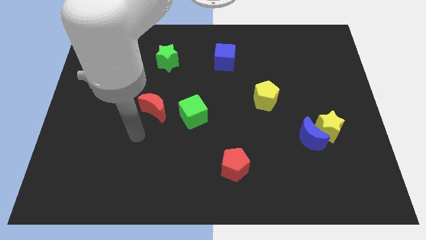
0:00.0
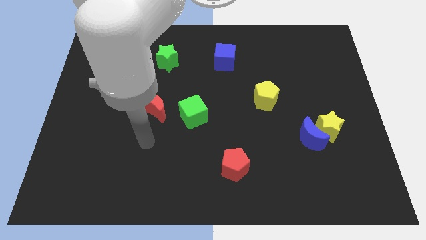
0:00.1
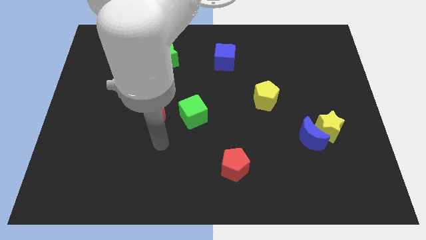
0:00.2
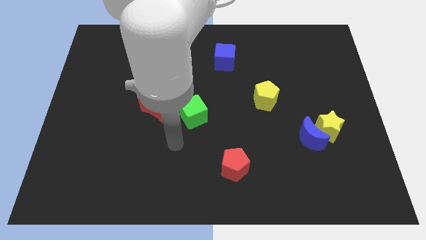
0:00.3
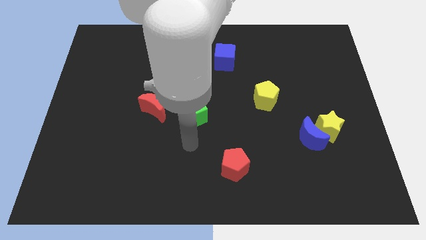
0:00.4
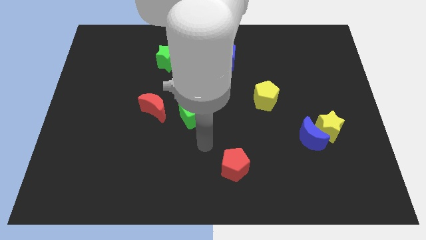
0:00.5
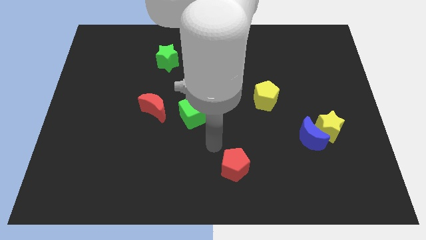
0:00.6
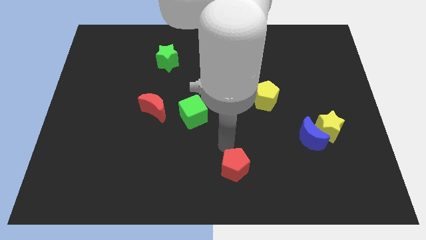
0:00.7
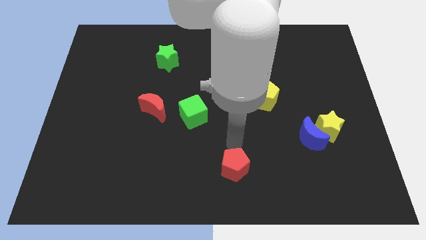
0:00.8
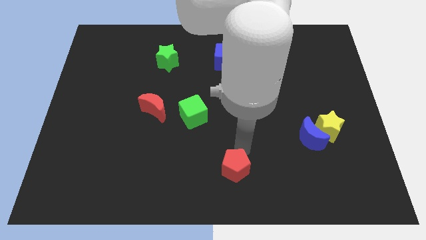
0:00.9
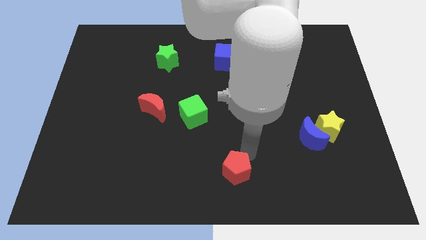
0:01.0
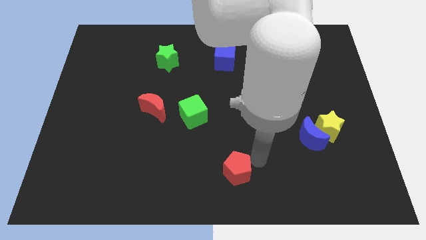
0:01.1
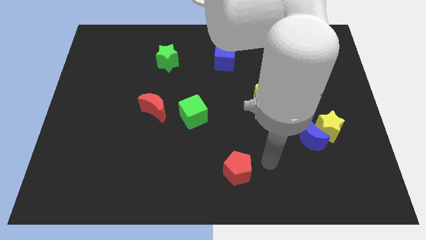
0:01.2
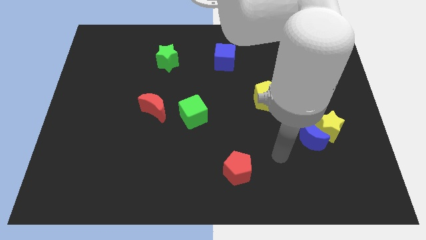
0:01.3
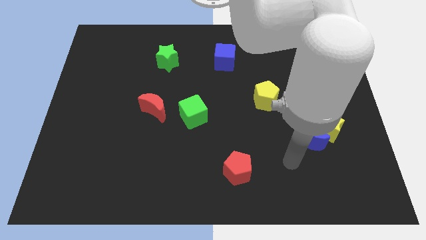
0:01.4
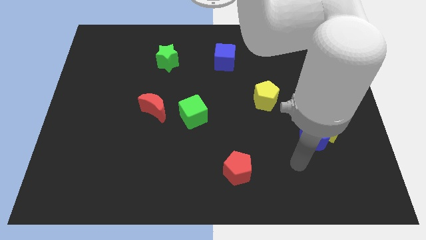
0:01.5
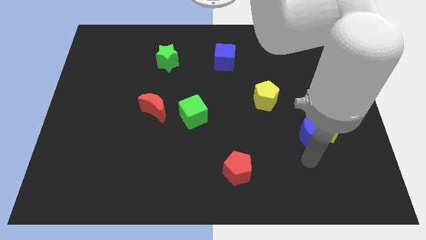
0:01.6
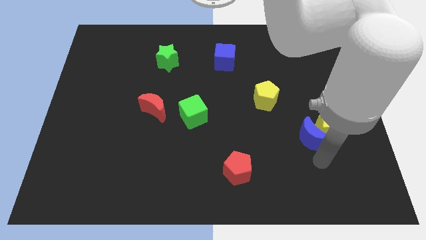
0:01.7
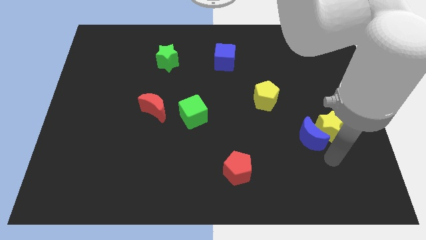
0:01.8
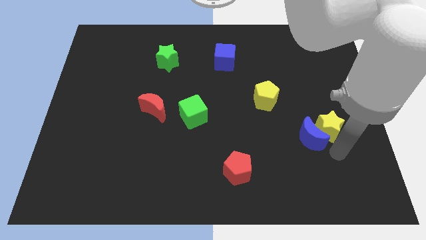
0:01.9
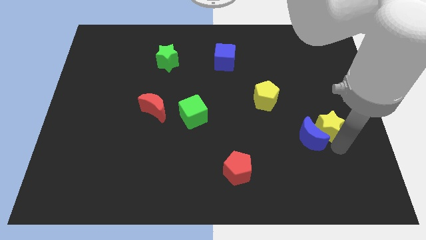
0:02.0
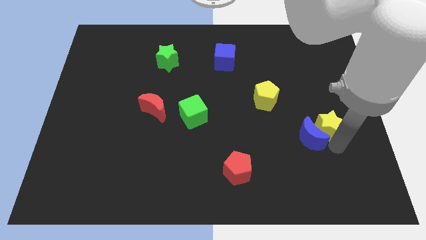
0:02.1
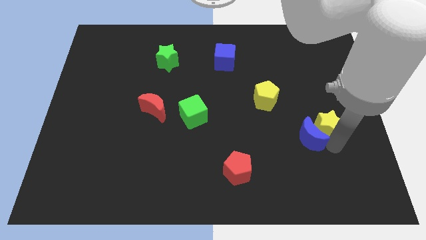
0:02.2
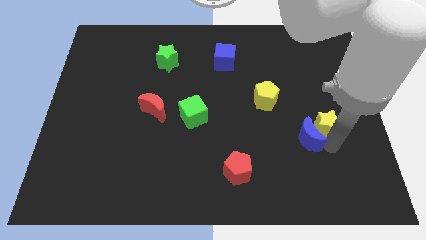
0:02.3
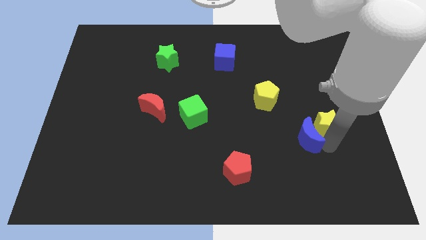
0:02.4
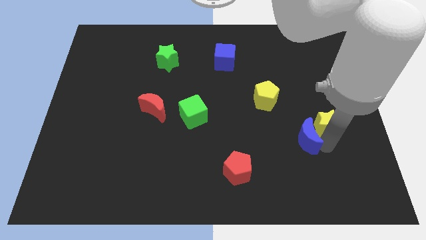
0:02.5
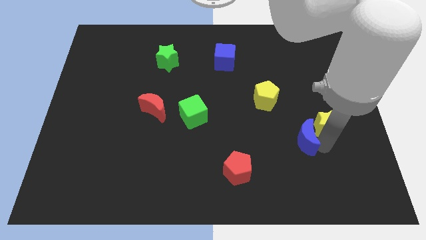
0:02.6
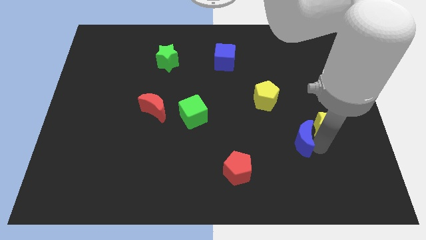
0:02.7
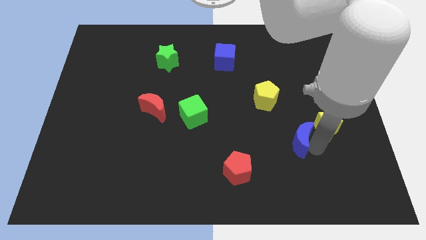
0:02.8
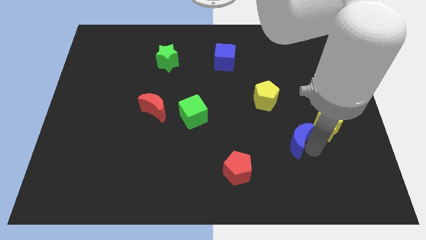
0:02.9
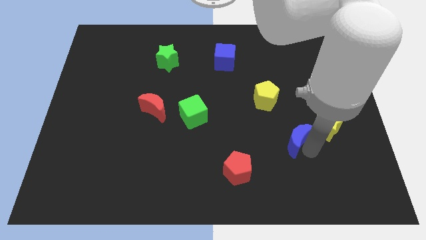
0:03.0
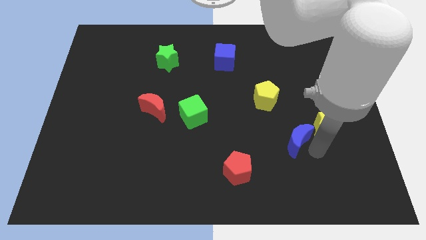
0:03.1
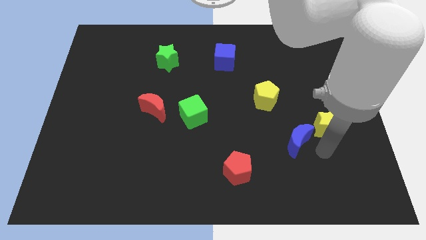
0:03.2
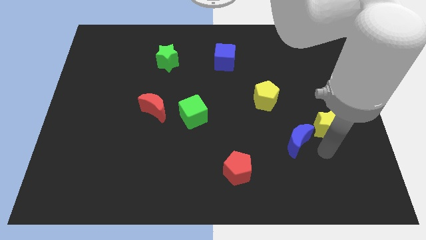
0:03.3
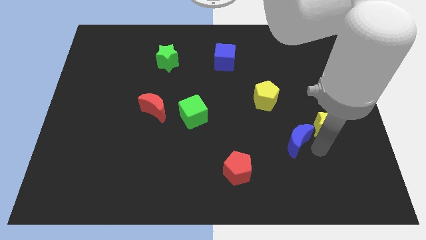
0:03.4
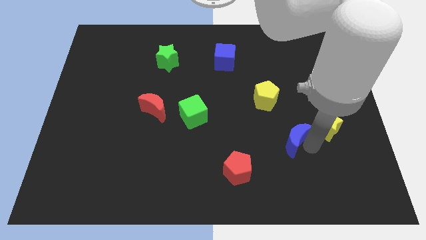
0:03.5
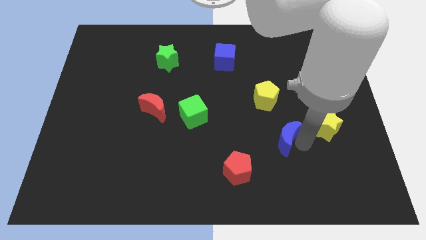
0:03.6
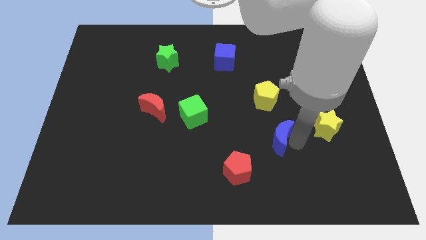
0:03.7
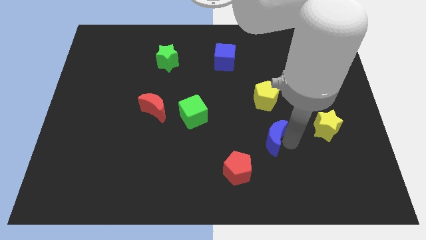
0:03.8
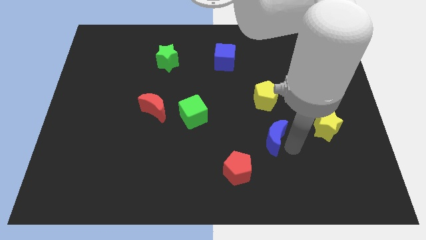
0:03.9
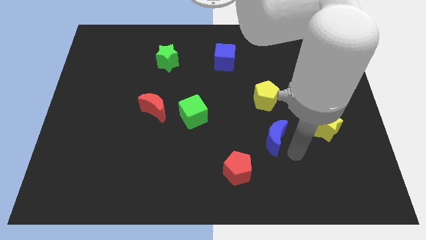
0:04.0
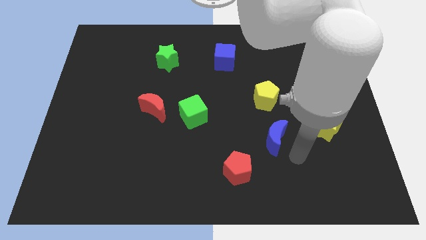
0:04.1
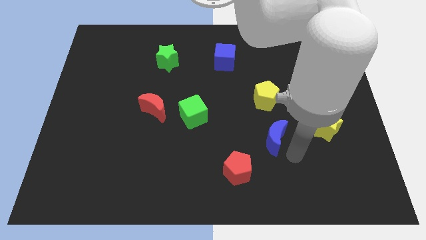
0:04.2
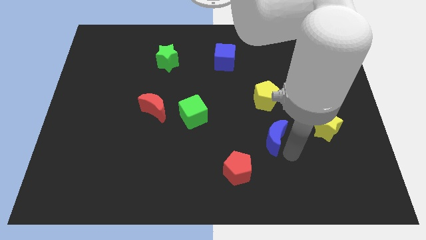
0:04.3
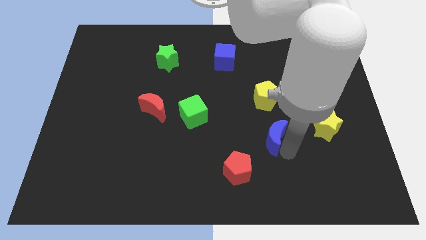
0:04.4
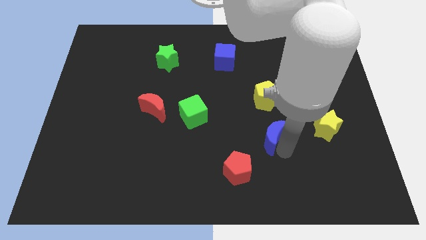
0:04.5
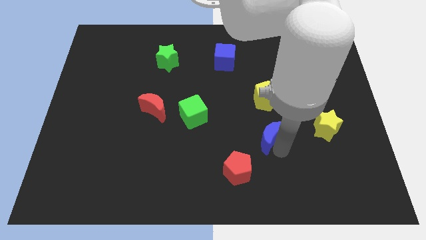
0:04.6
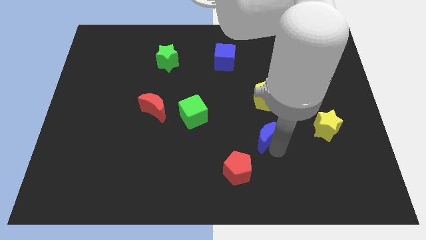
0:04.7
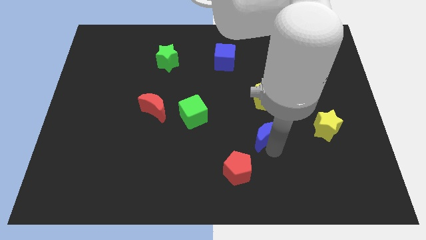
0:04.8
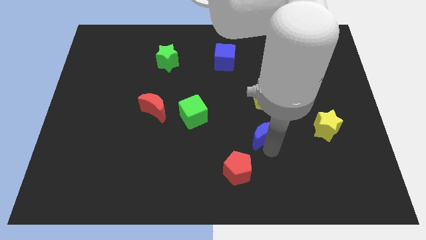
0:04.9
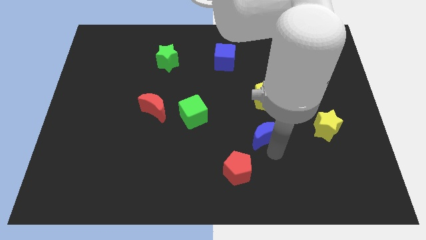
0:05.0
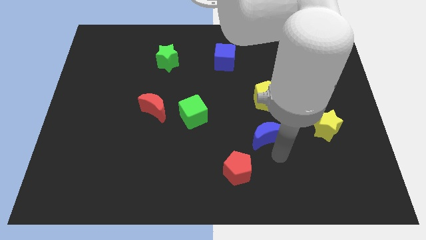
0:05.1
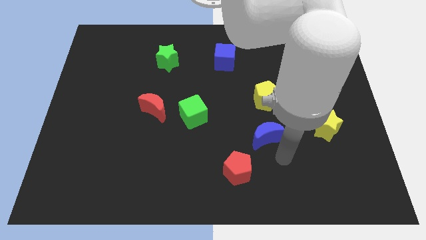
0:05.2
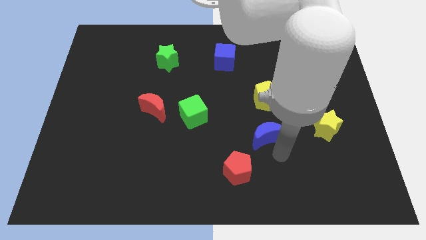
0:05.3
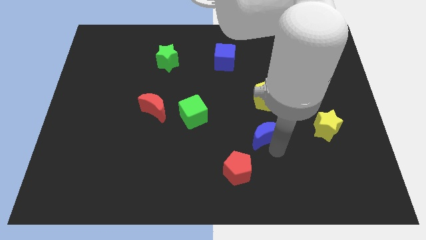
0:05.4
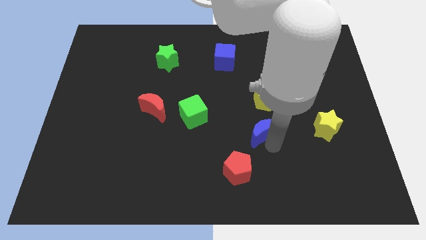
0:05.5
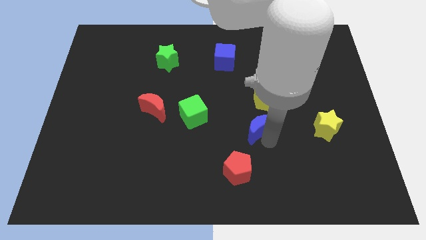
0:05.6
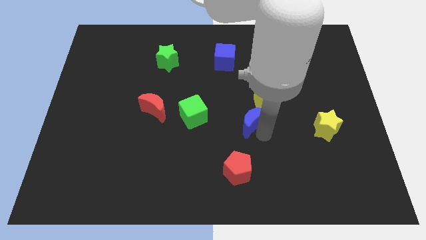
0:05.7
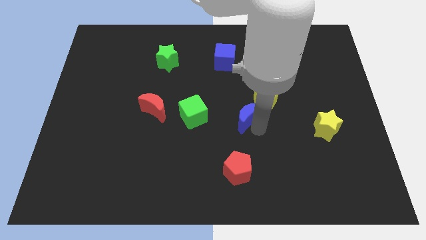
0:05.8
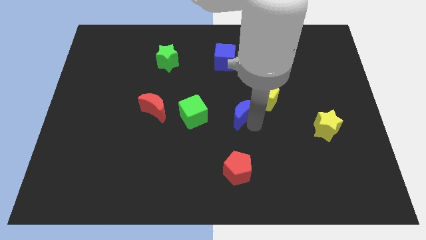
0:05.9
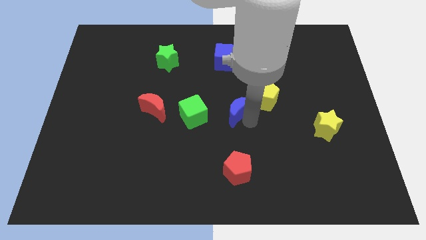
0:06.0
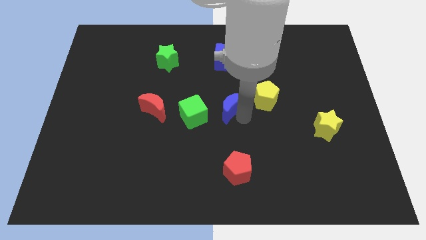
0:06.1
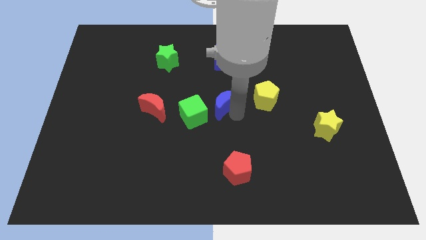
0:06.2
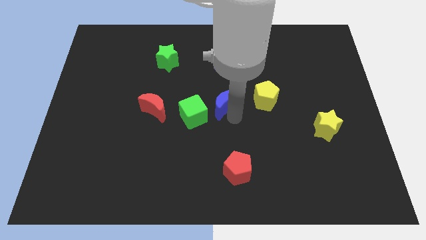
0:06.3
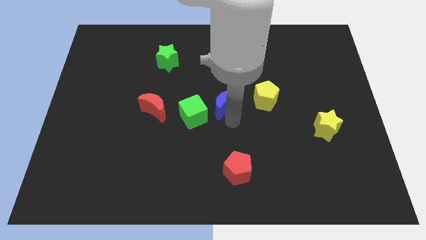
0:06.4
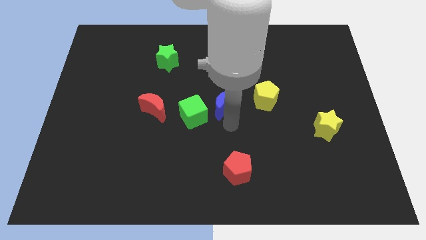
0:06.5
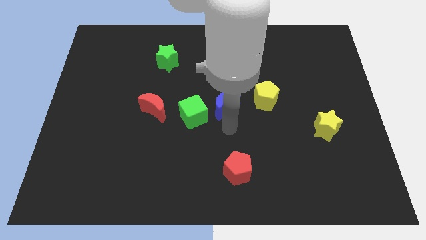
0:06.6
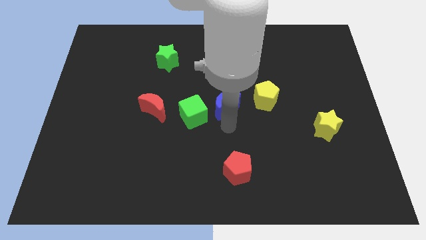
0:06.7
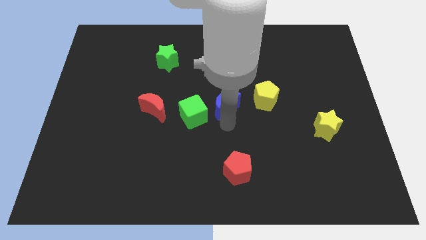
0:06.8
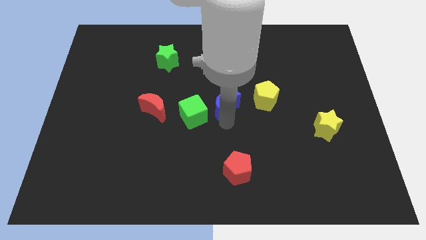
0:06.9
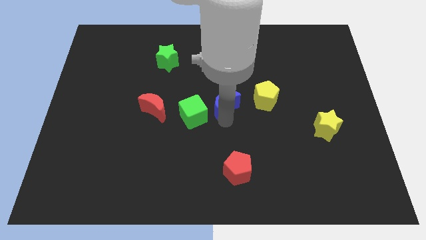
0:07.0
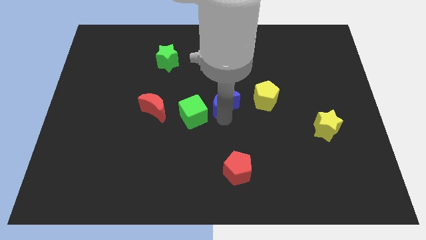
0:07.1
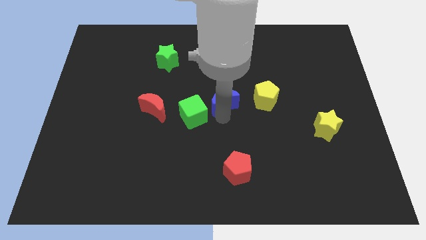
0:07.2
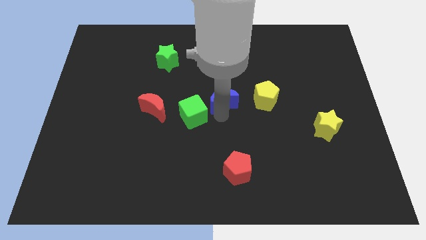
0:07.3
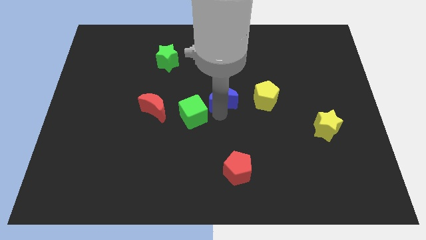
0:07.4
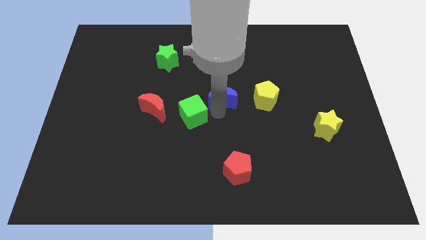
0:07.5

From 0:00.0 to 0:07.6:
push the blue moon up and then to the left

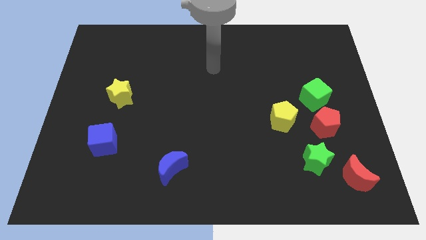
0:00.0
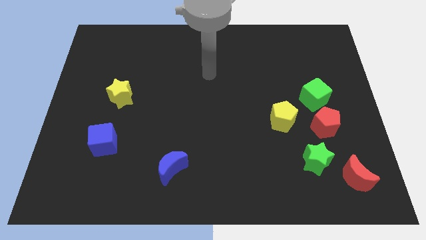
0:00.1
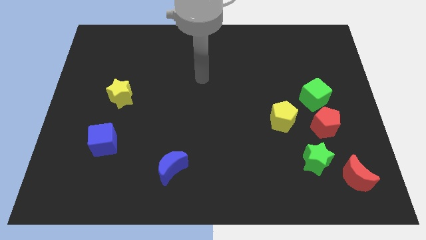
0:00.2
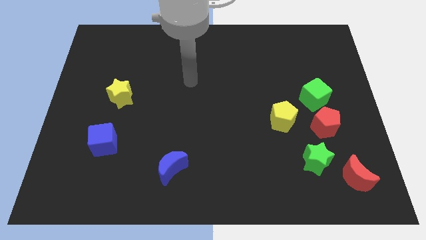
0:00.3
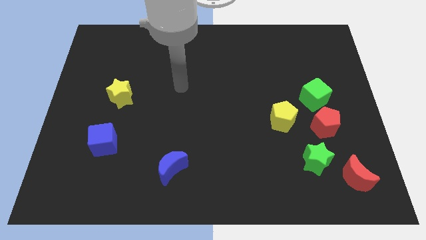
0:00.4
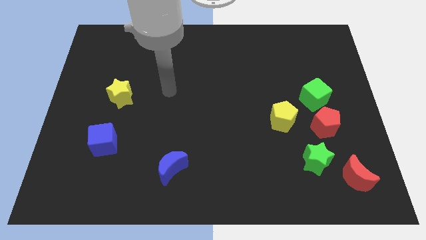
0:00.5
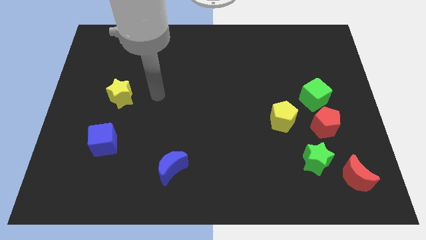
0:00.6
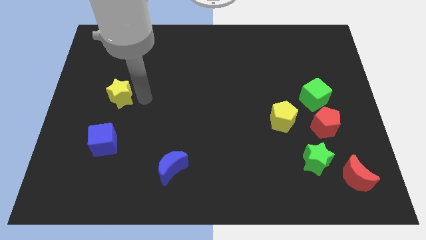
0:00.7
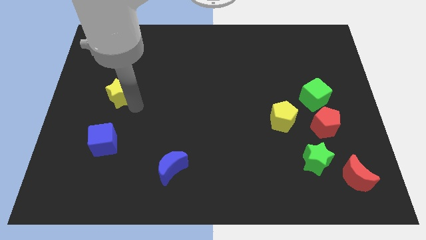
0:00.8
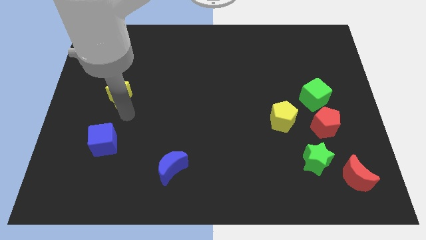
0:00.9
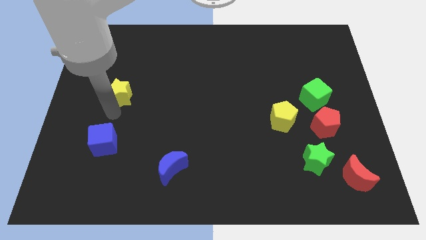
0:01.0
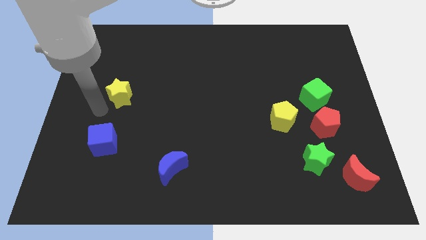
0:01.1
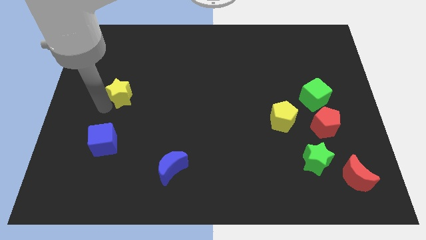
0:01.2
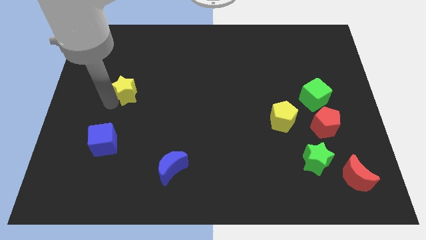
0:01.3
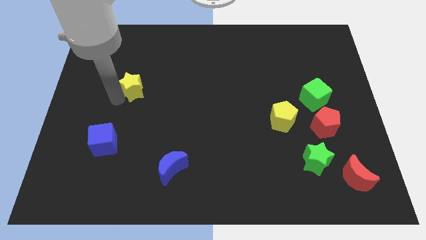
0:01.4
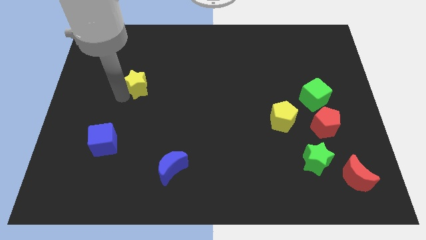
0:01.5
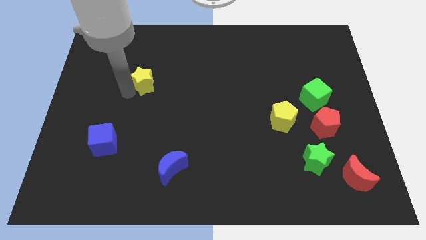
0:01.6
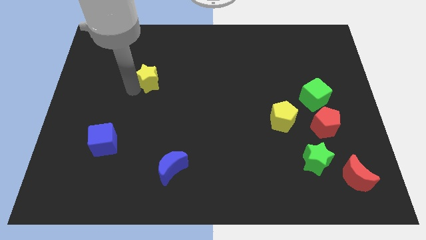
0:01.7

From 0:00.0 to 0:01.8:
move the yellow star diagonally upwards and to the right a bit
